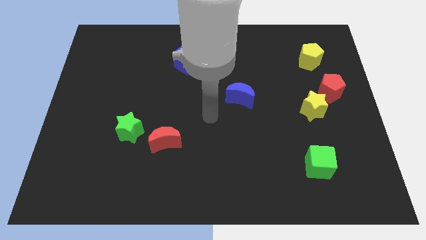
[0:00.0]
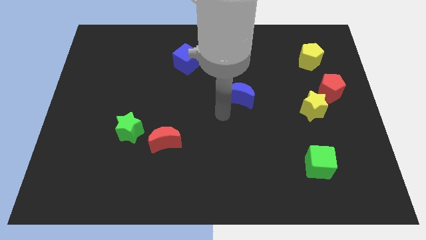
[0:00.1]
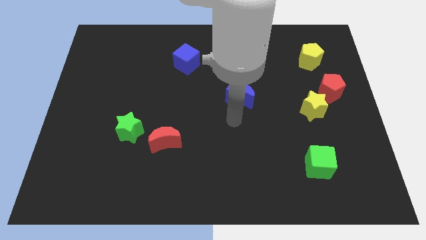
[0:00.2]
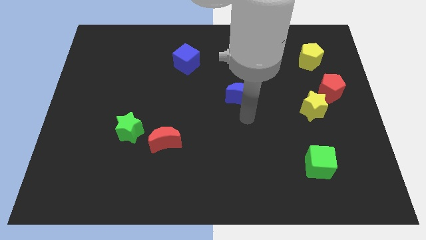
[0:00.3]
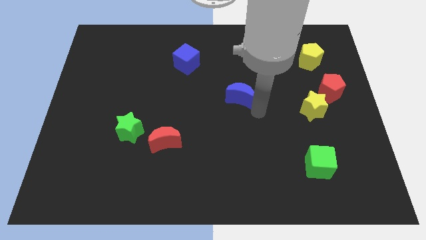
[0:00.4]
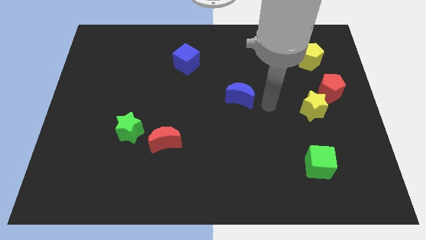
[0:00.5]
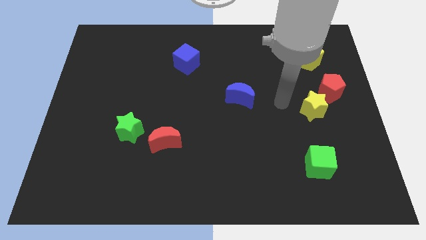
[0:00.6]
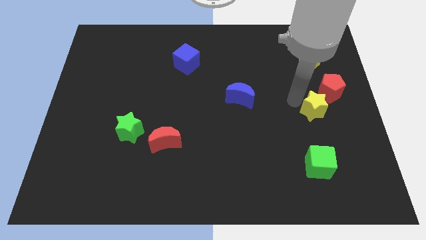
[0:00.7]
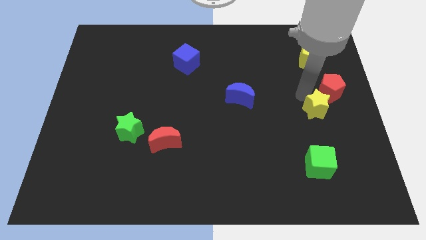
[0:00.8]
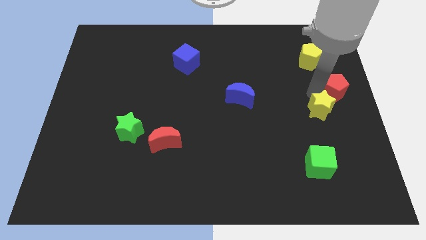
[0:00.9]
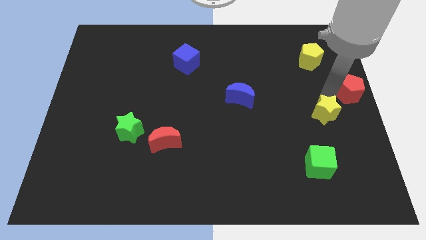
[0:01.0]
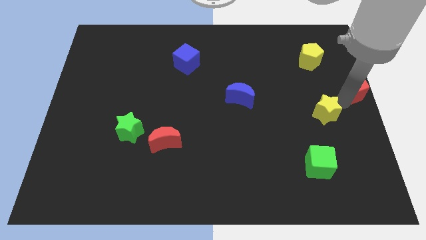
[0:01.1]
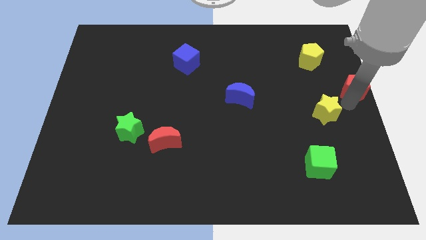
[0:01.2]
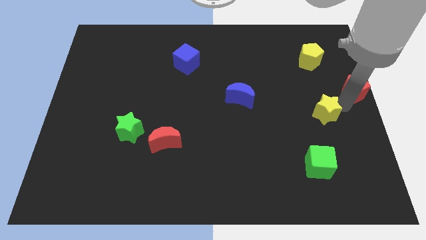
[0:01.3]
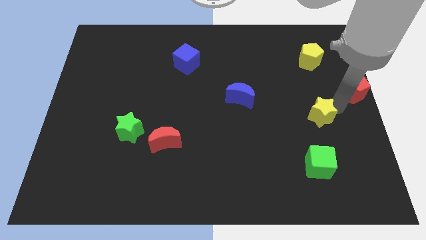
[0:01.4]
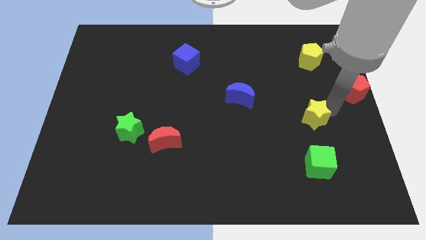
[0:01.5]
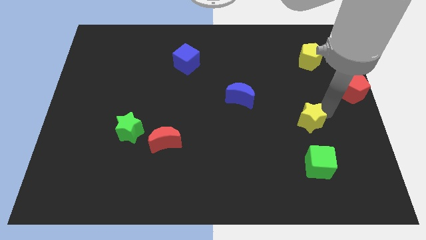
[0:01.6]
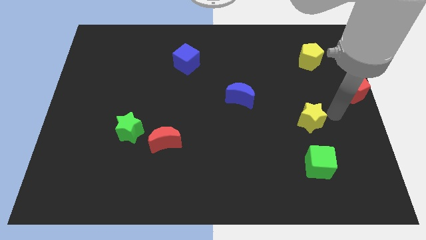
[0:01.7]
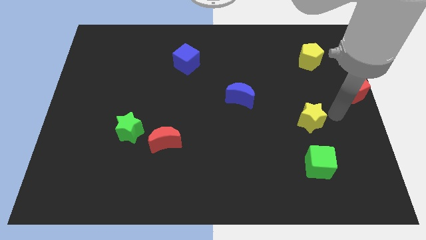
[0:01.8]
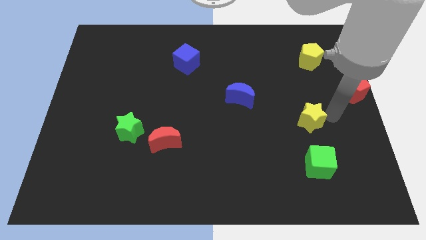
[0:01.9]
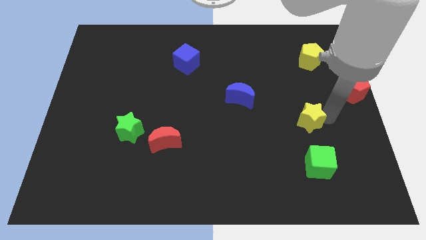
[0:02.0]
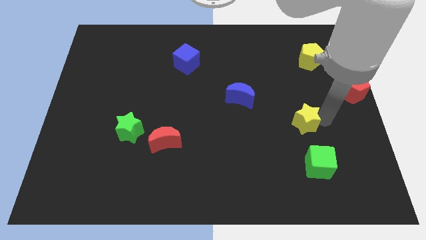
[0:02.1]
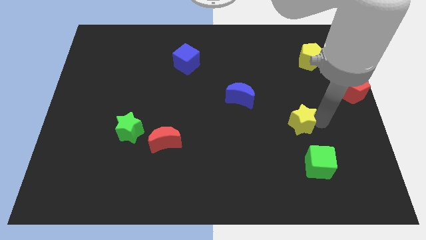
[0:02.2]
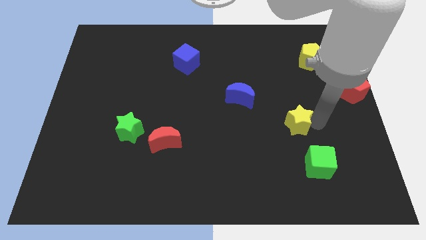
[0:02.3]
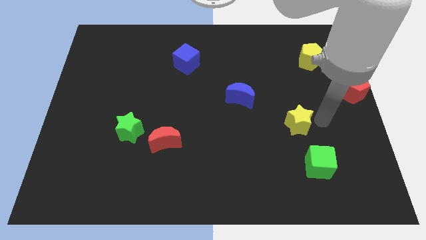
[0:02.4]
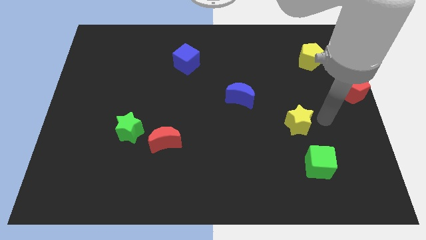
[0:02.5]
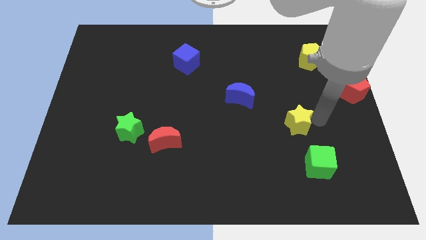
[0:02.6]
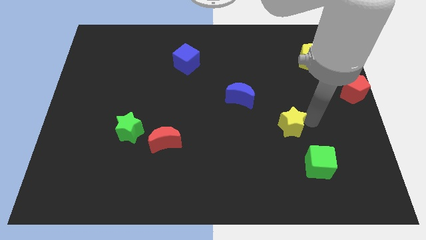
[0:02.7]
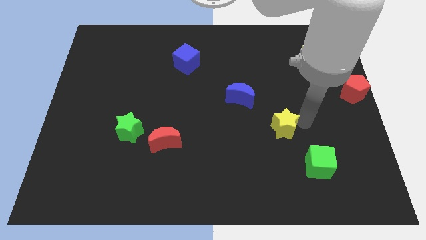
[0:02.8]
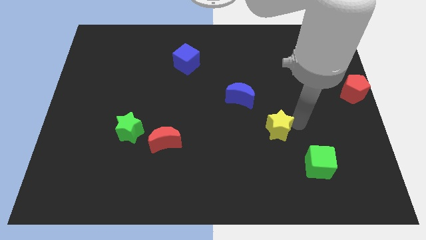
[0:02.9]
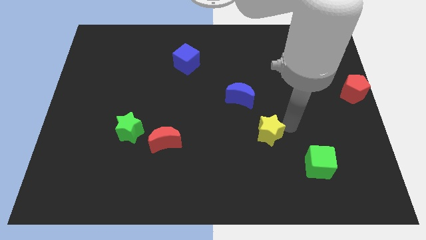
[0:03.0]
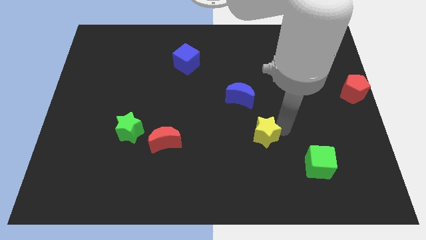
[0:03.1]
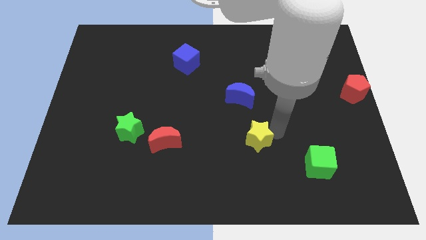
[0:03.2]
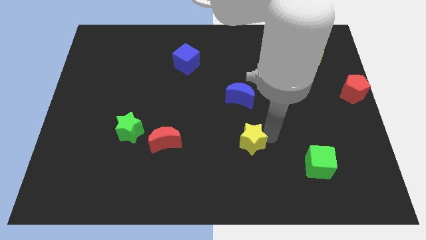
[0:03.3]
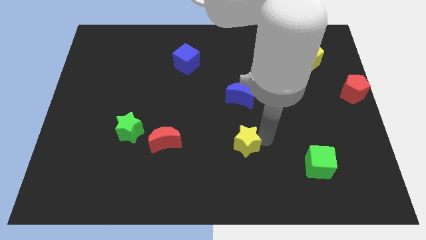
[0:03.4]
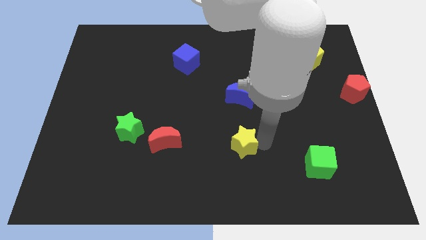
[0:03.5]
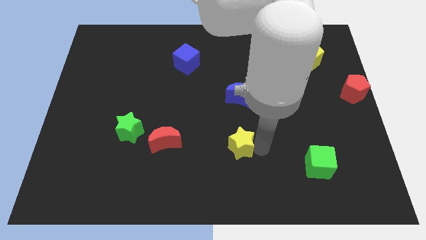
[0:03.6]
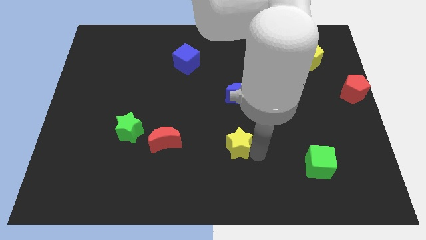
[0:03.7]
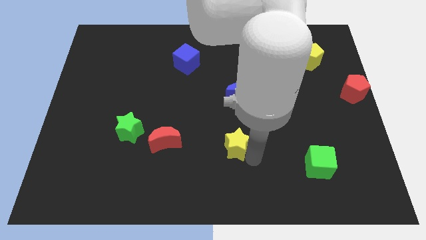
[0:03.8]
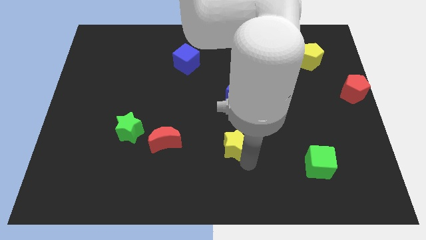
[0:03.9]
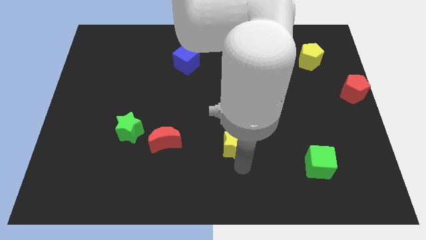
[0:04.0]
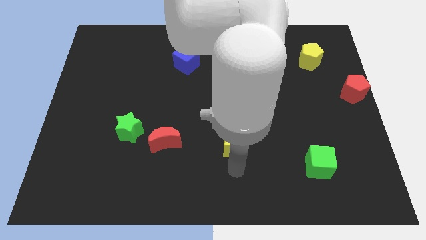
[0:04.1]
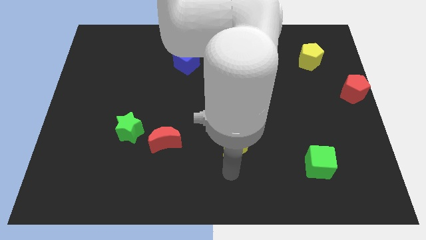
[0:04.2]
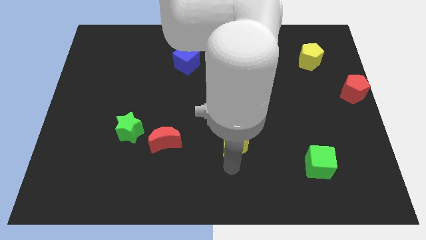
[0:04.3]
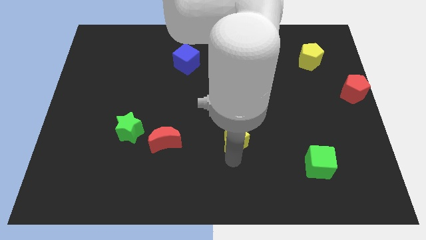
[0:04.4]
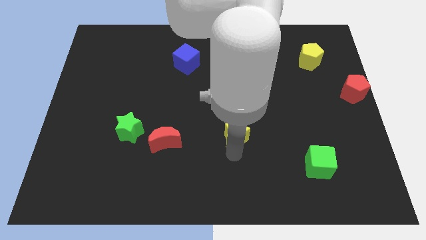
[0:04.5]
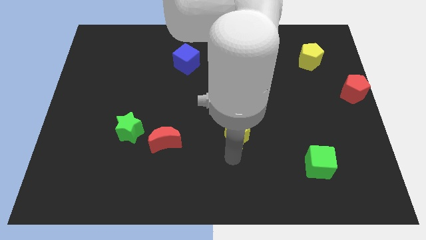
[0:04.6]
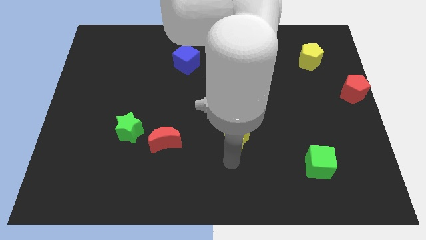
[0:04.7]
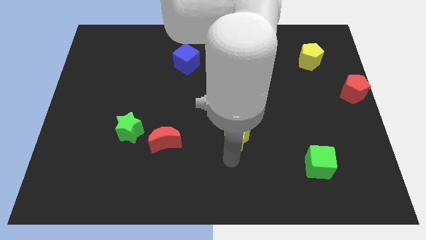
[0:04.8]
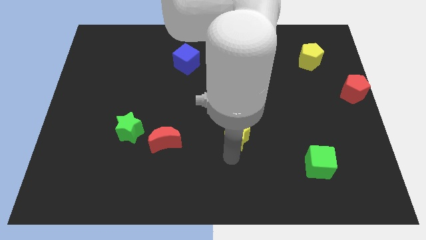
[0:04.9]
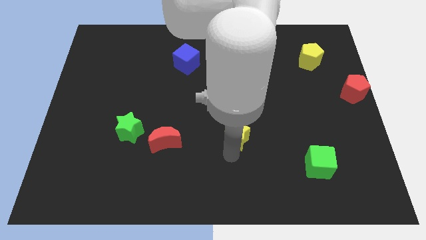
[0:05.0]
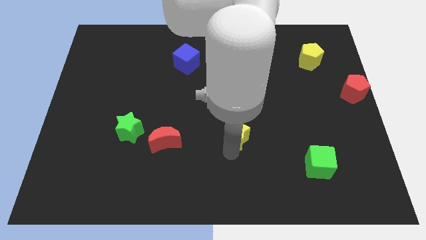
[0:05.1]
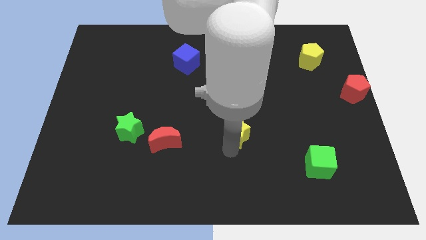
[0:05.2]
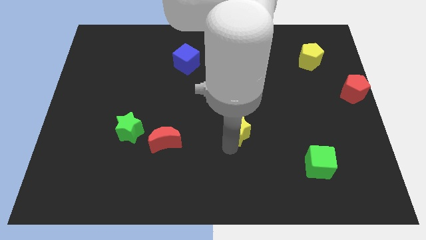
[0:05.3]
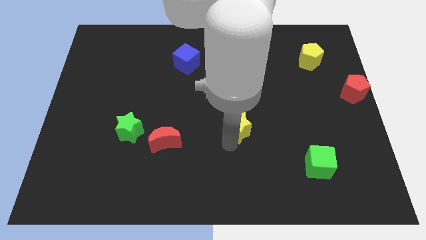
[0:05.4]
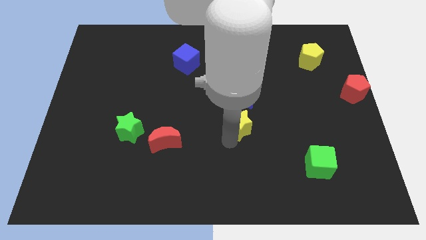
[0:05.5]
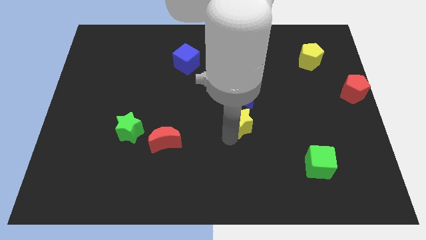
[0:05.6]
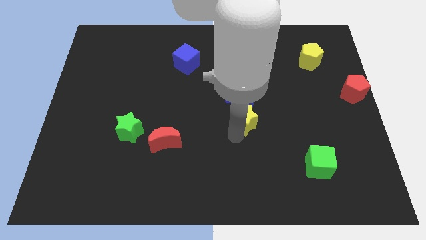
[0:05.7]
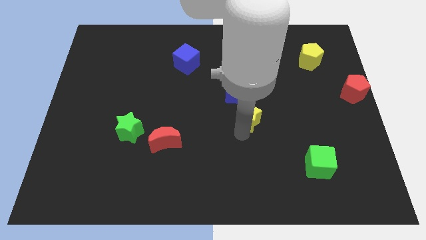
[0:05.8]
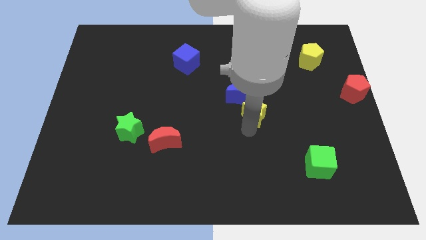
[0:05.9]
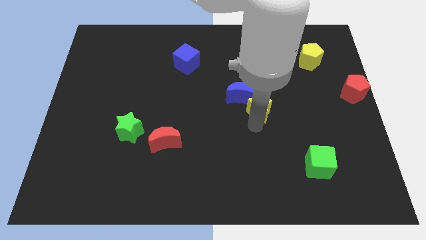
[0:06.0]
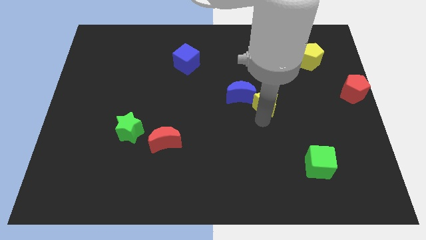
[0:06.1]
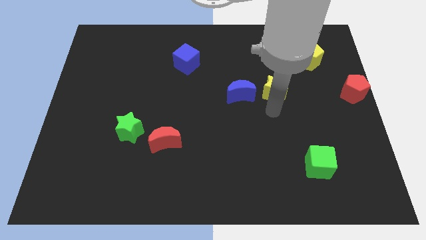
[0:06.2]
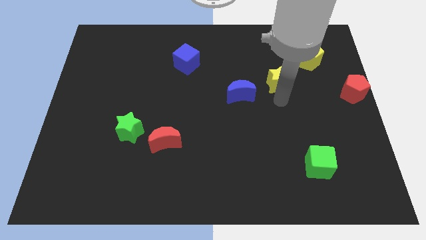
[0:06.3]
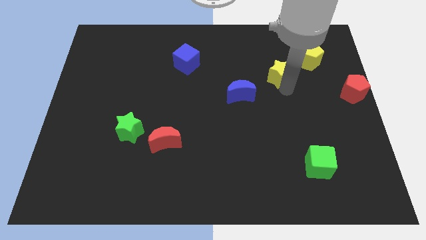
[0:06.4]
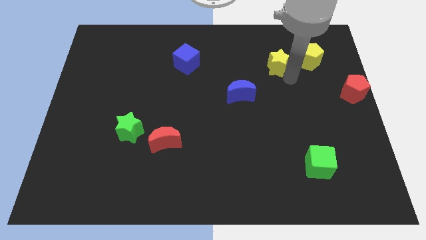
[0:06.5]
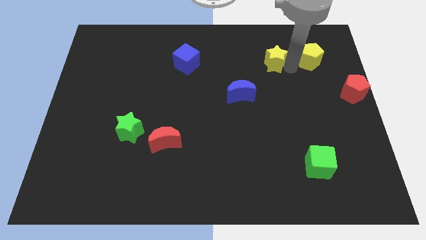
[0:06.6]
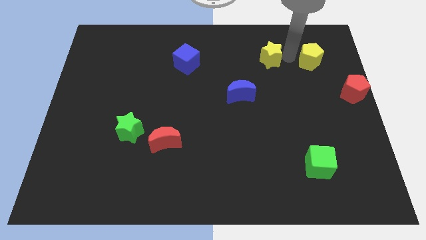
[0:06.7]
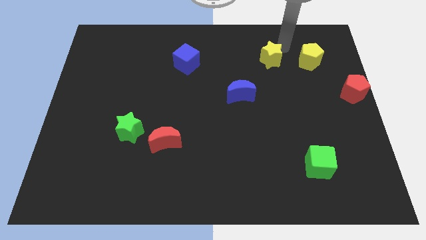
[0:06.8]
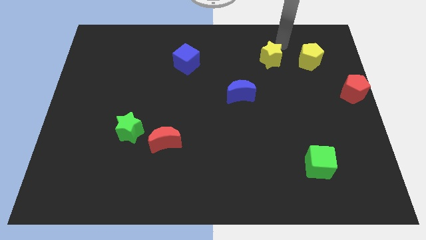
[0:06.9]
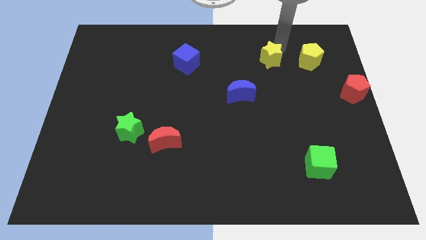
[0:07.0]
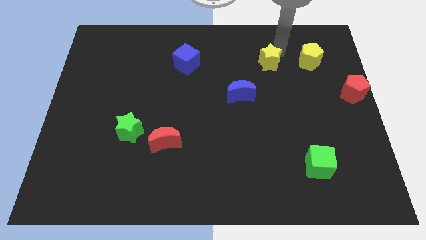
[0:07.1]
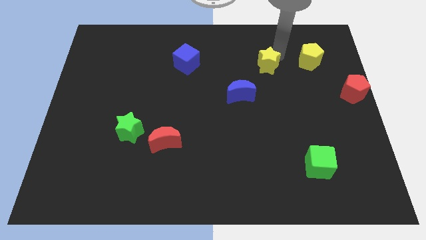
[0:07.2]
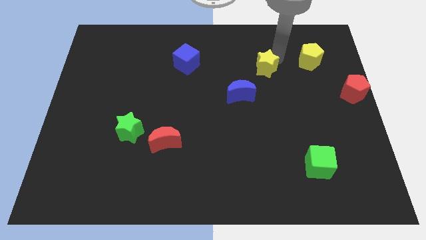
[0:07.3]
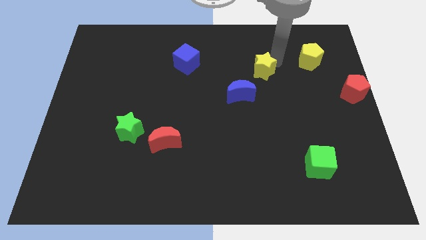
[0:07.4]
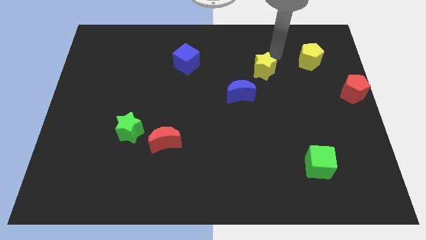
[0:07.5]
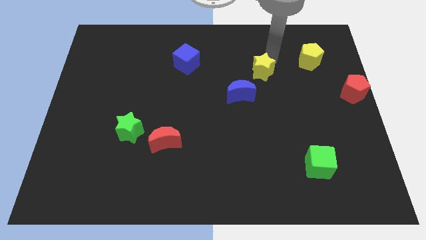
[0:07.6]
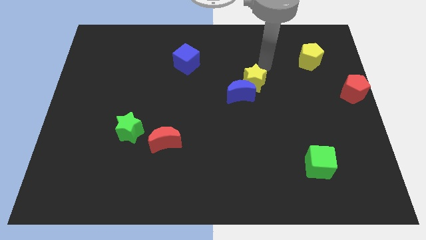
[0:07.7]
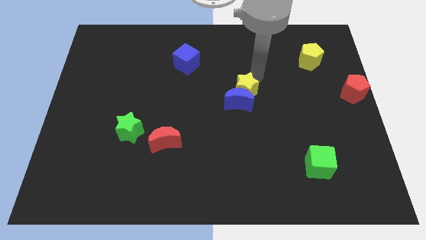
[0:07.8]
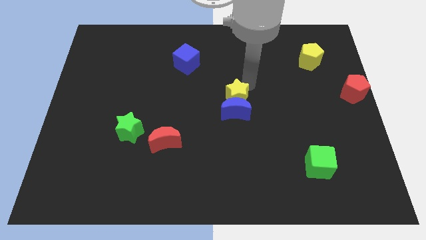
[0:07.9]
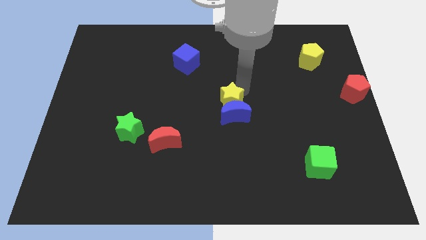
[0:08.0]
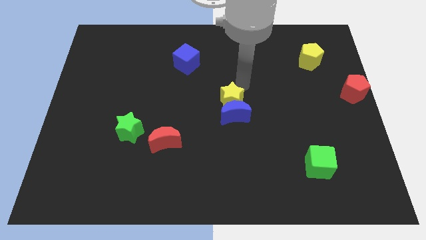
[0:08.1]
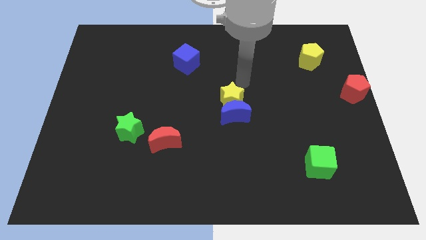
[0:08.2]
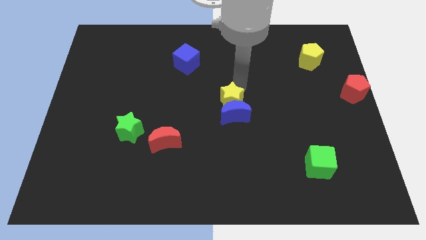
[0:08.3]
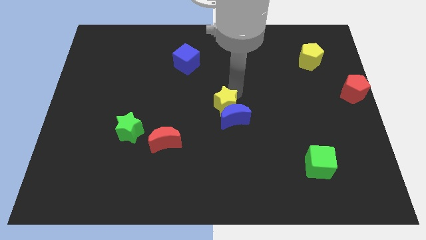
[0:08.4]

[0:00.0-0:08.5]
slide the yellow star left
